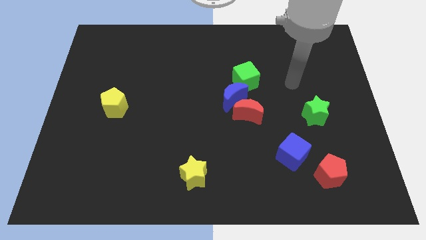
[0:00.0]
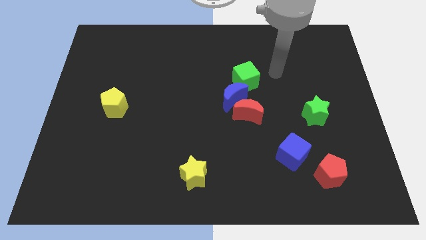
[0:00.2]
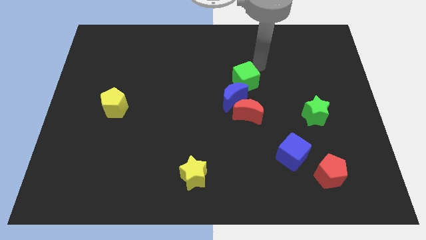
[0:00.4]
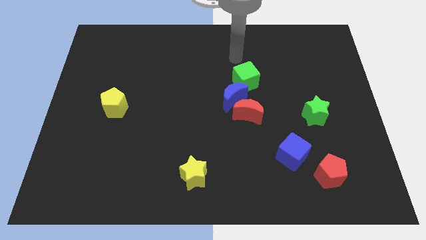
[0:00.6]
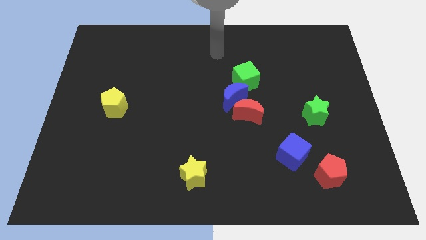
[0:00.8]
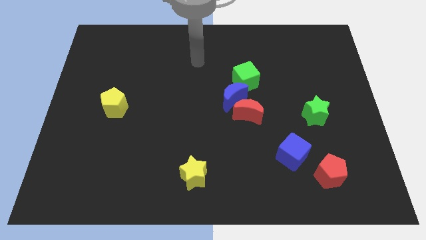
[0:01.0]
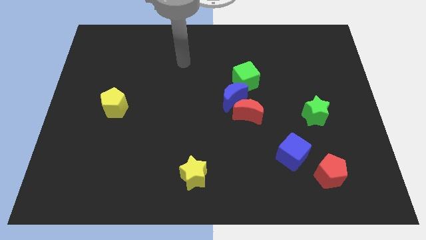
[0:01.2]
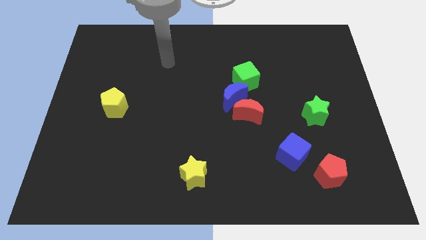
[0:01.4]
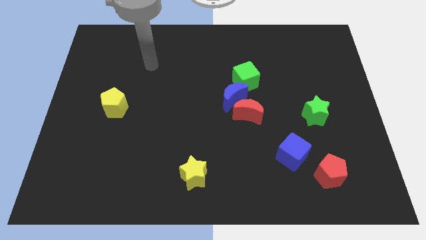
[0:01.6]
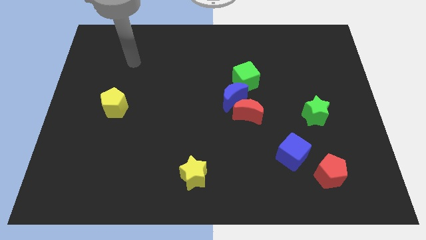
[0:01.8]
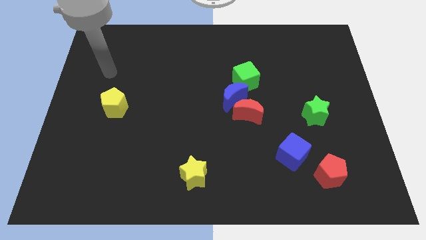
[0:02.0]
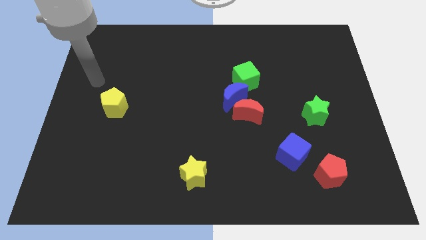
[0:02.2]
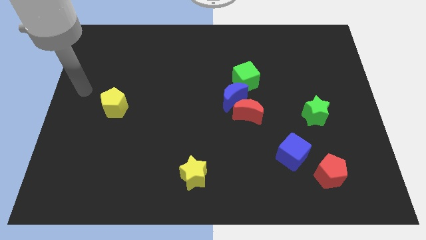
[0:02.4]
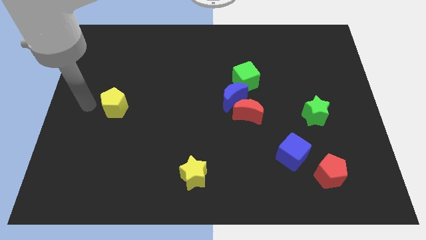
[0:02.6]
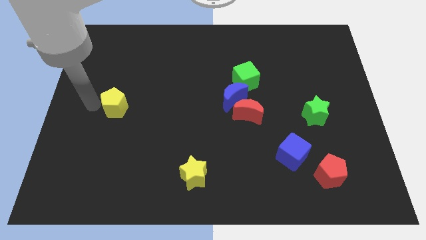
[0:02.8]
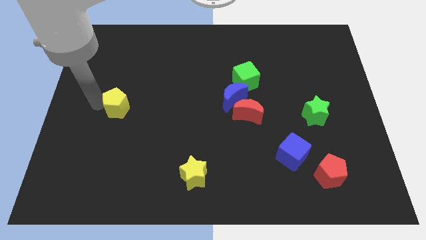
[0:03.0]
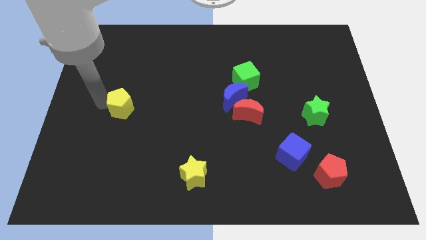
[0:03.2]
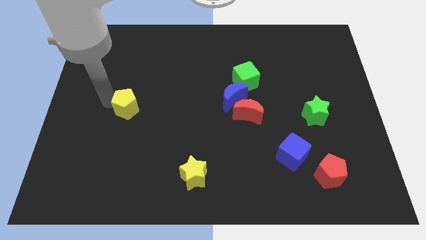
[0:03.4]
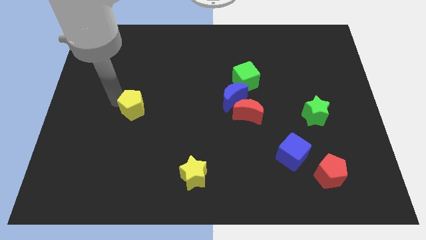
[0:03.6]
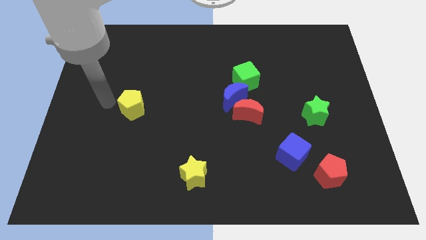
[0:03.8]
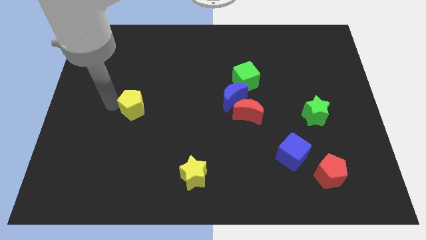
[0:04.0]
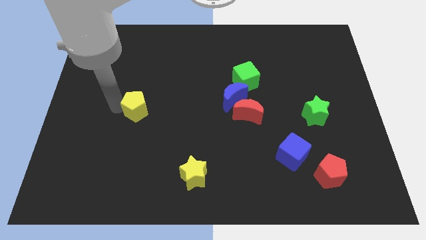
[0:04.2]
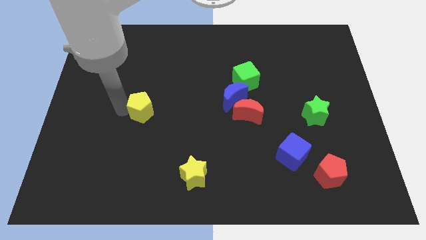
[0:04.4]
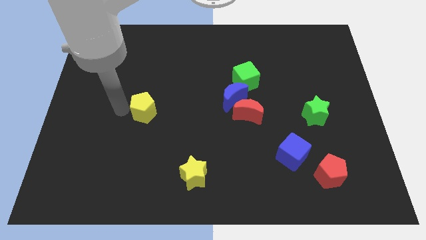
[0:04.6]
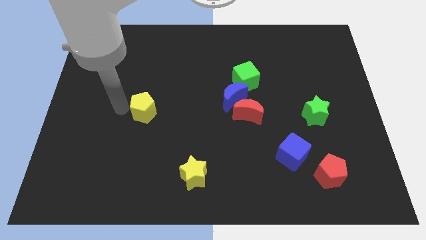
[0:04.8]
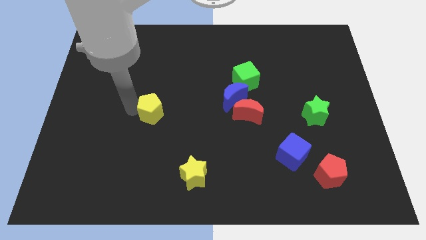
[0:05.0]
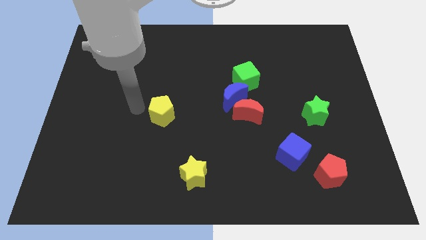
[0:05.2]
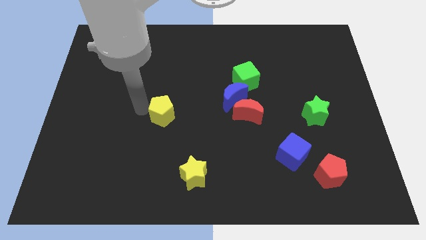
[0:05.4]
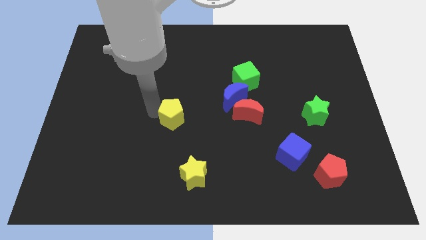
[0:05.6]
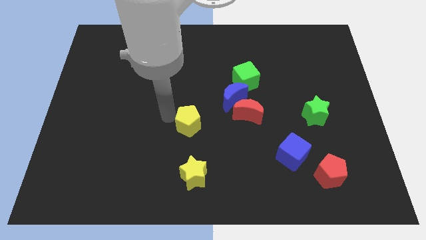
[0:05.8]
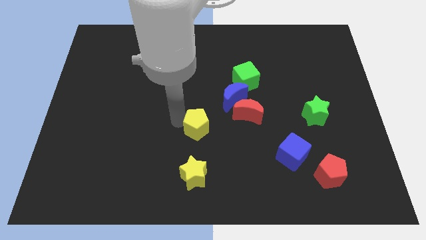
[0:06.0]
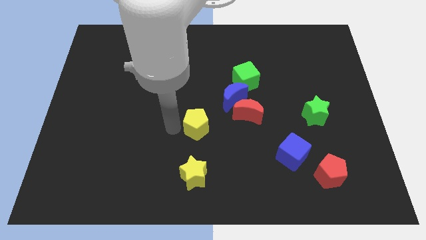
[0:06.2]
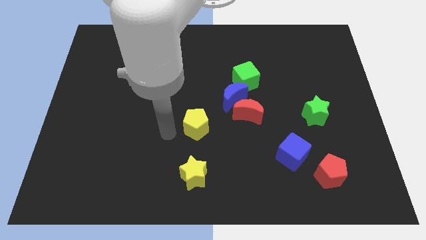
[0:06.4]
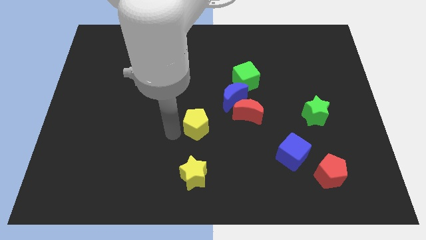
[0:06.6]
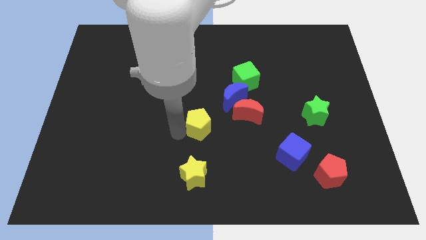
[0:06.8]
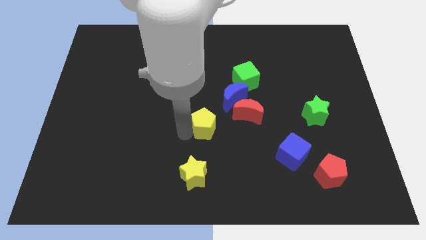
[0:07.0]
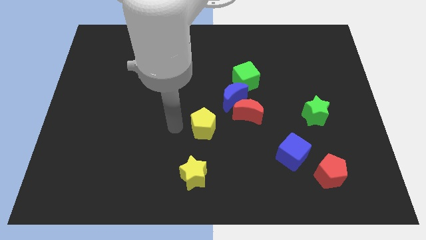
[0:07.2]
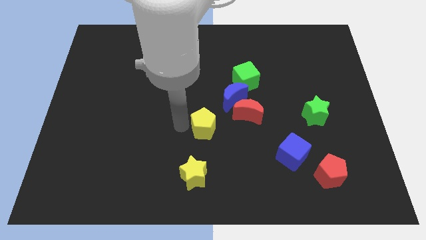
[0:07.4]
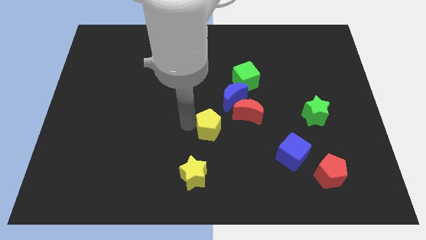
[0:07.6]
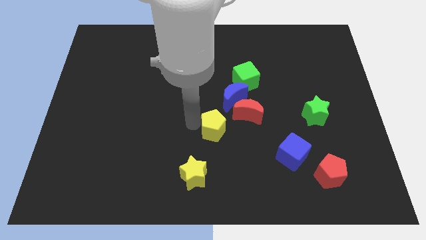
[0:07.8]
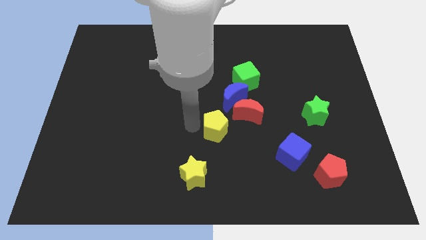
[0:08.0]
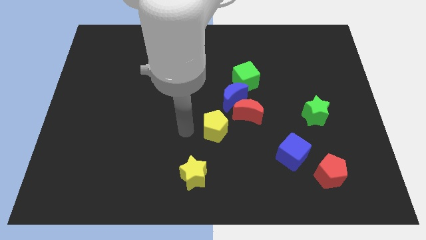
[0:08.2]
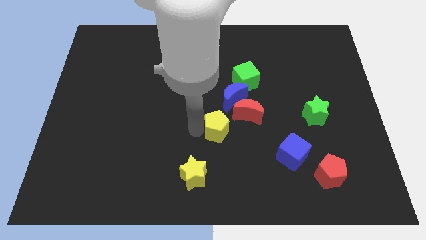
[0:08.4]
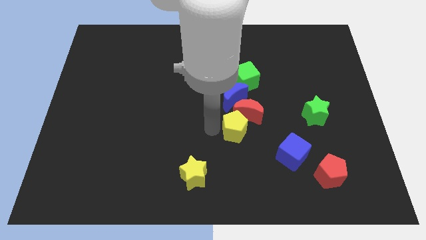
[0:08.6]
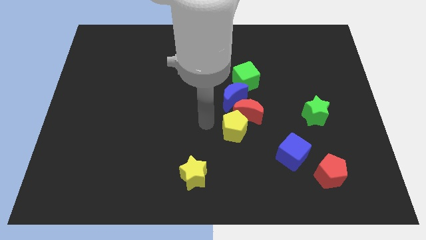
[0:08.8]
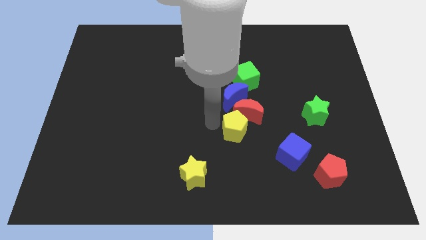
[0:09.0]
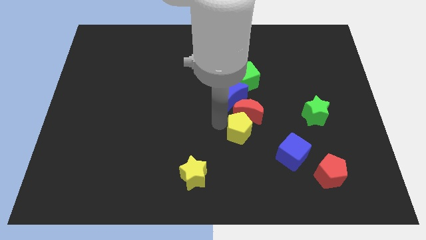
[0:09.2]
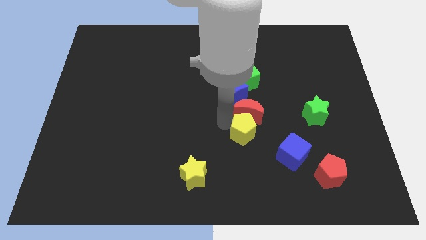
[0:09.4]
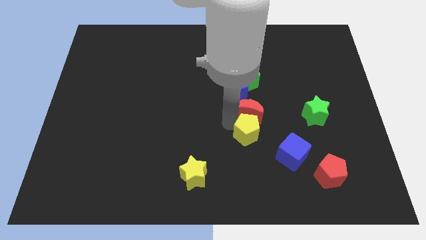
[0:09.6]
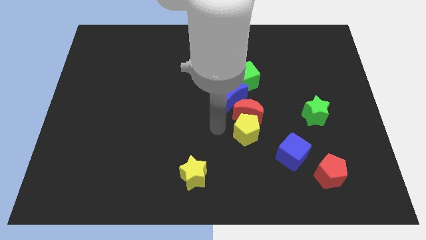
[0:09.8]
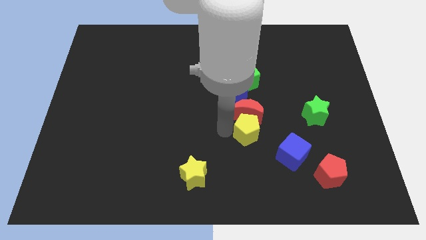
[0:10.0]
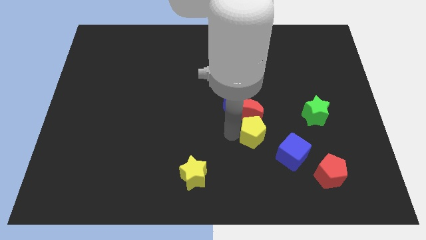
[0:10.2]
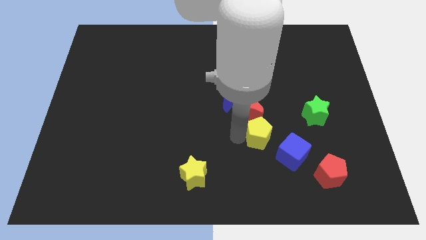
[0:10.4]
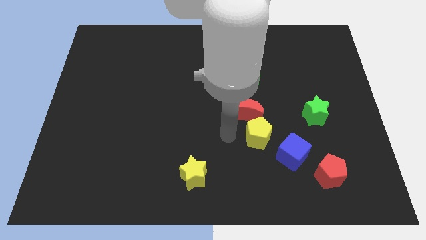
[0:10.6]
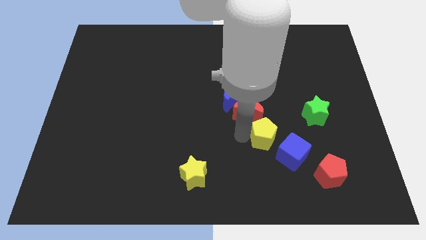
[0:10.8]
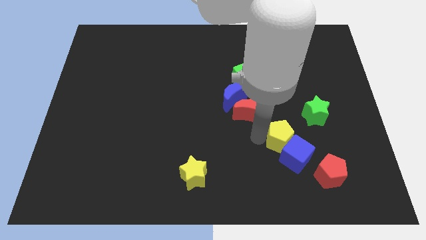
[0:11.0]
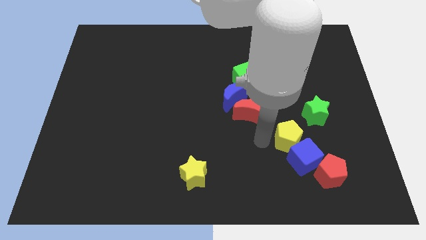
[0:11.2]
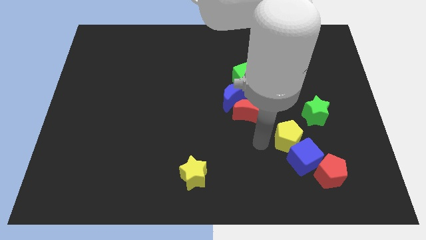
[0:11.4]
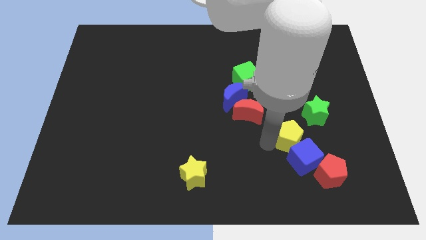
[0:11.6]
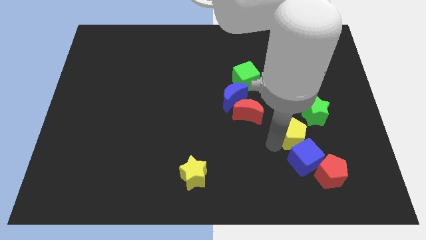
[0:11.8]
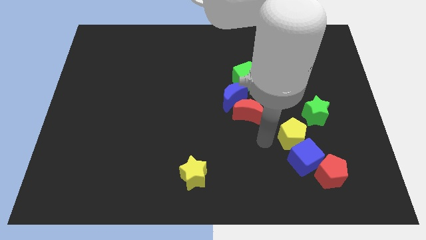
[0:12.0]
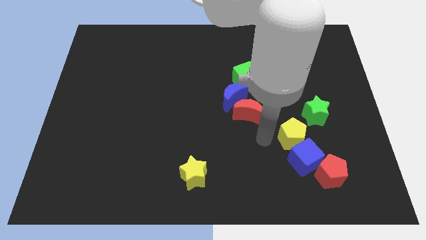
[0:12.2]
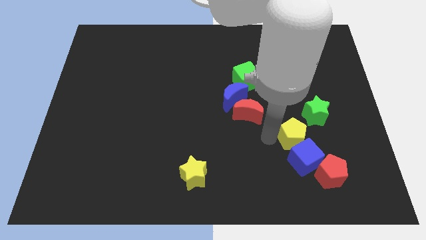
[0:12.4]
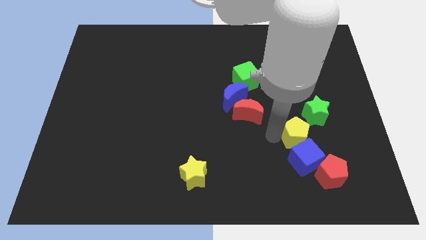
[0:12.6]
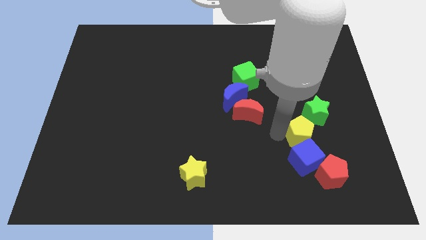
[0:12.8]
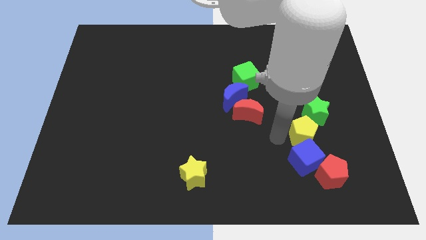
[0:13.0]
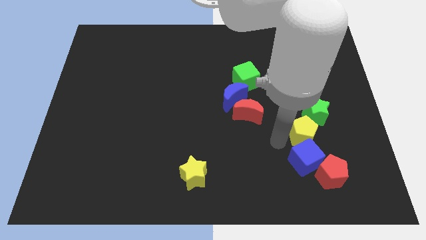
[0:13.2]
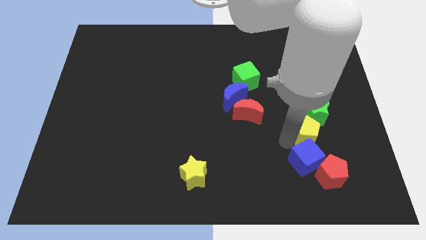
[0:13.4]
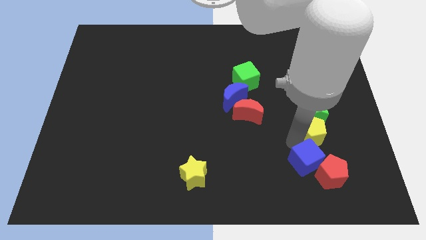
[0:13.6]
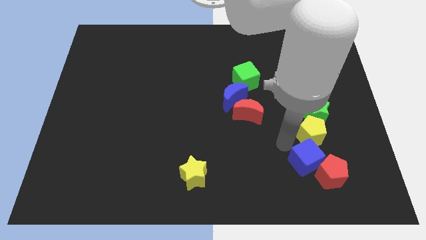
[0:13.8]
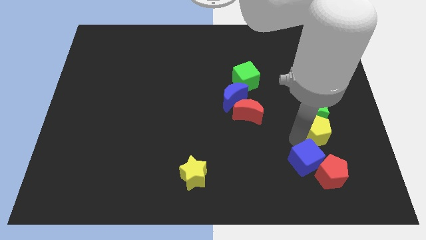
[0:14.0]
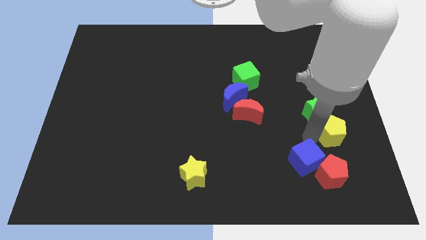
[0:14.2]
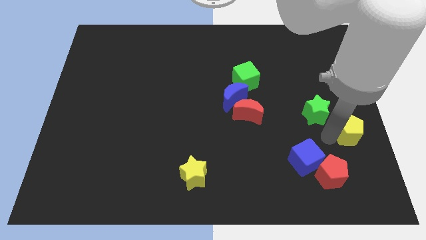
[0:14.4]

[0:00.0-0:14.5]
push the yellow pentagon to the center right
